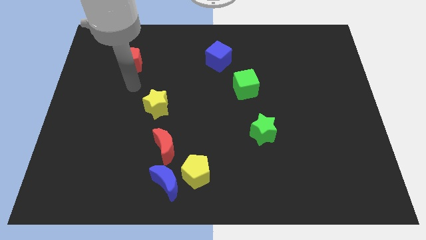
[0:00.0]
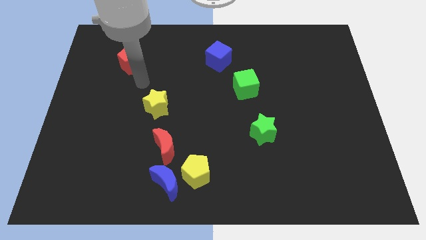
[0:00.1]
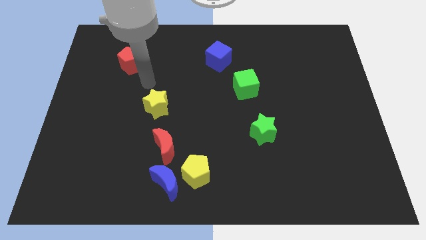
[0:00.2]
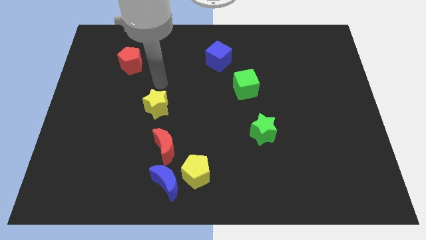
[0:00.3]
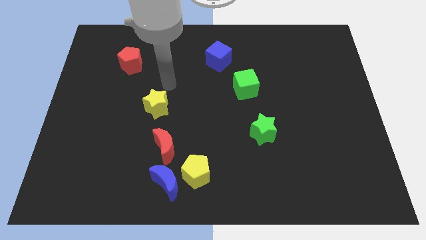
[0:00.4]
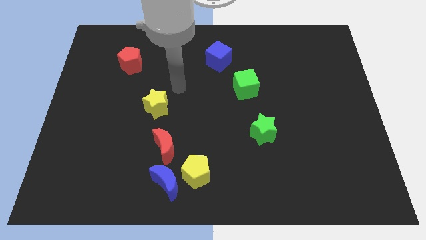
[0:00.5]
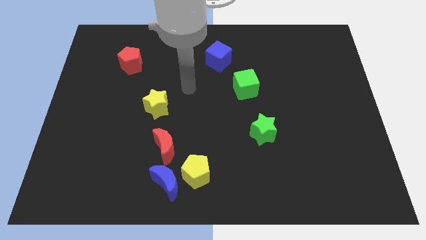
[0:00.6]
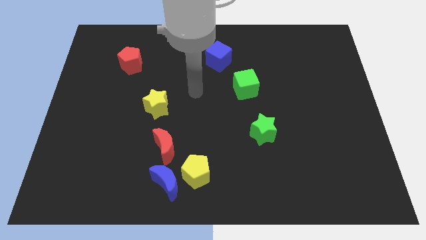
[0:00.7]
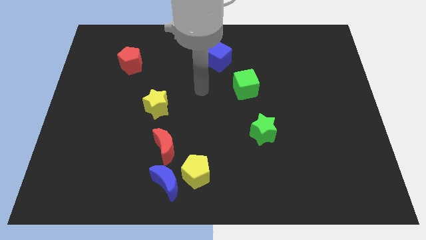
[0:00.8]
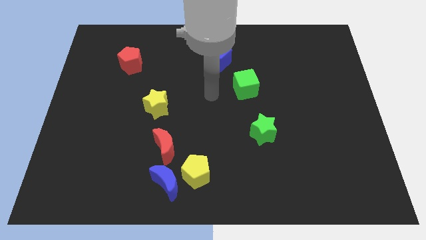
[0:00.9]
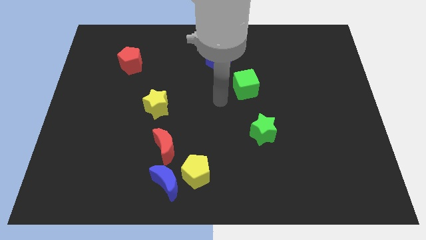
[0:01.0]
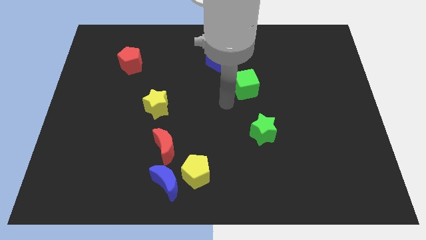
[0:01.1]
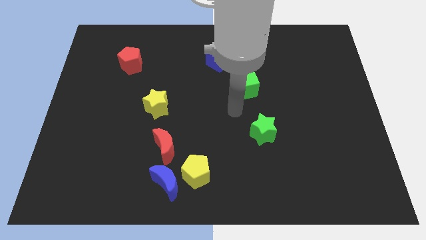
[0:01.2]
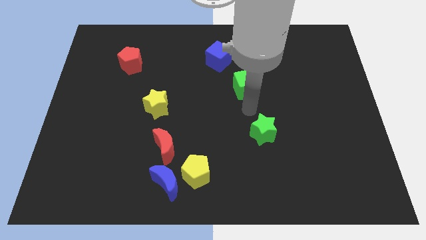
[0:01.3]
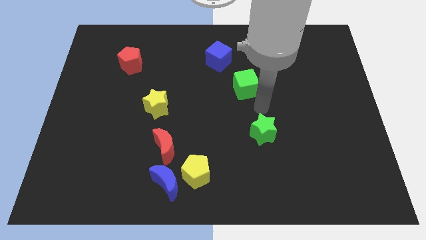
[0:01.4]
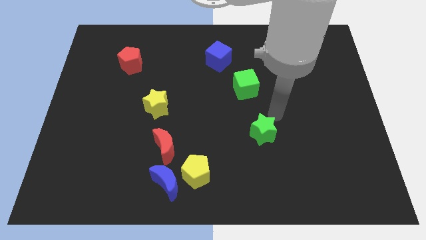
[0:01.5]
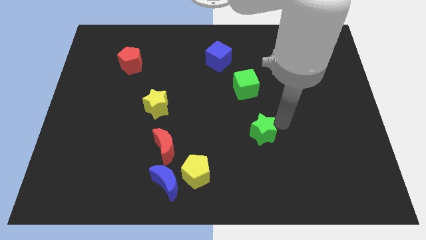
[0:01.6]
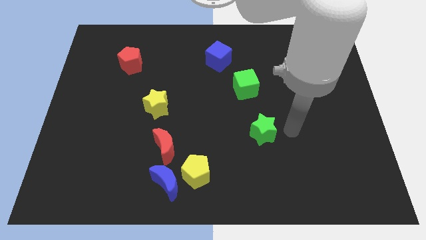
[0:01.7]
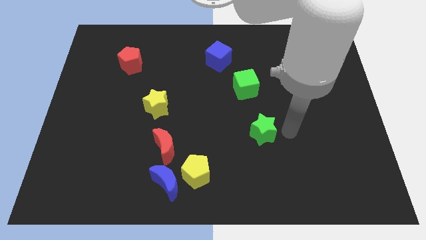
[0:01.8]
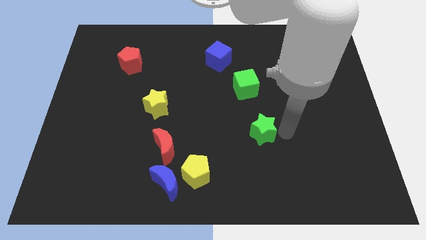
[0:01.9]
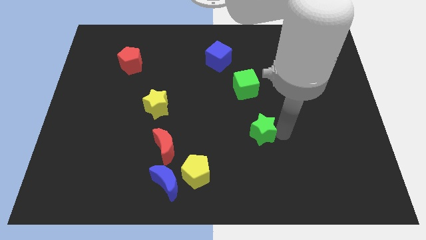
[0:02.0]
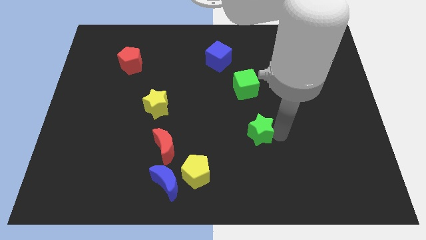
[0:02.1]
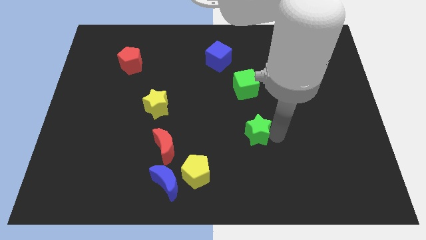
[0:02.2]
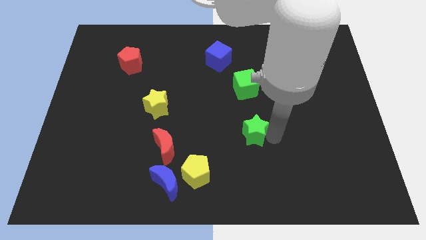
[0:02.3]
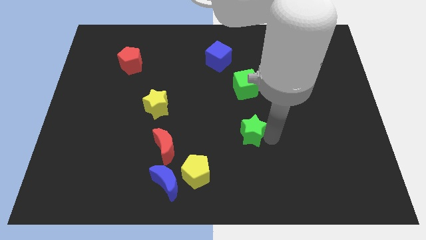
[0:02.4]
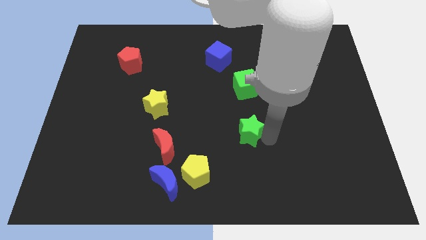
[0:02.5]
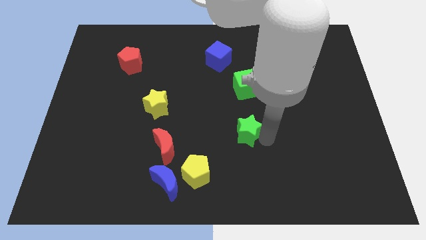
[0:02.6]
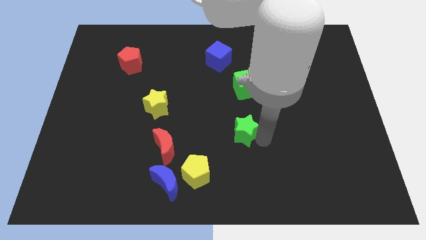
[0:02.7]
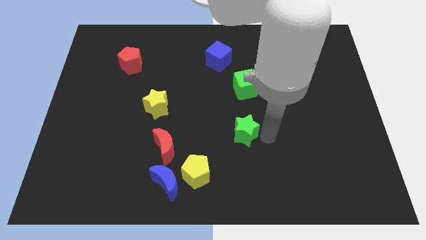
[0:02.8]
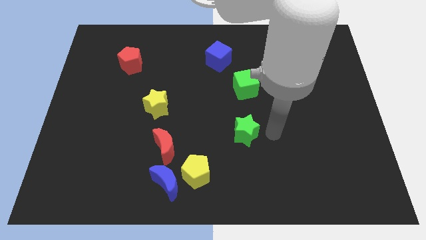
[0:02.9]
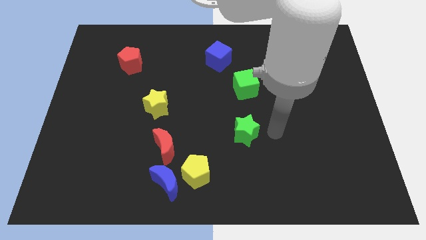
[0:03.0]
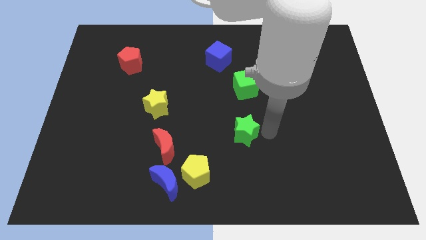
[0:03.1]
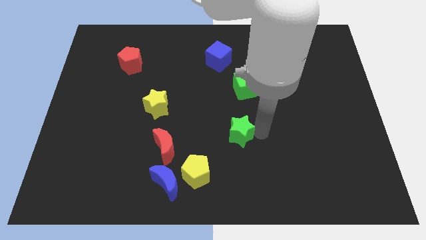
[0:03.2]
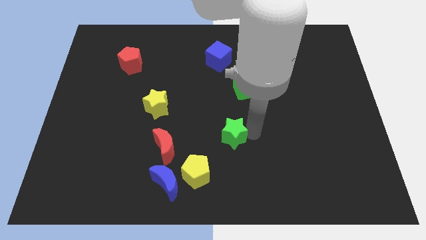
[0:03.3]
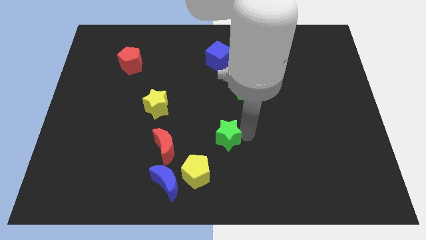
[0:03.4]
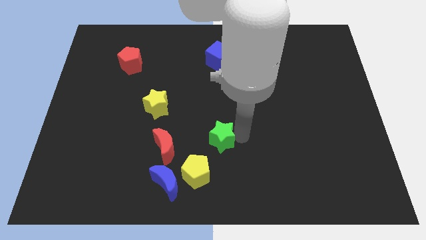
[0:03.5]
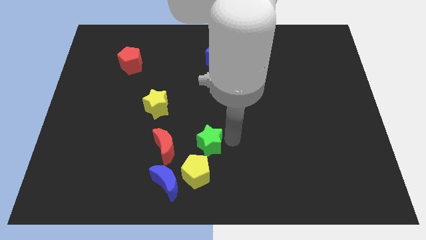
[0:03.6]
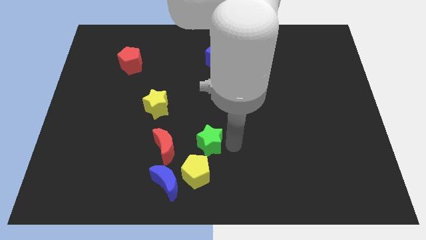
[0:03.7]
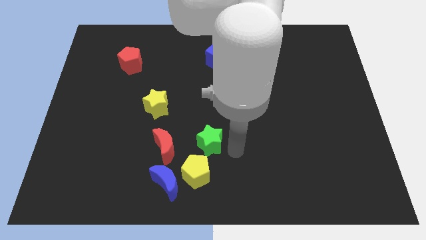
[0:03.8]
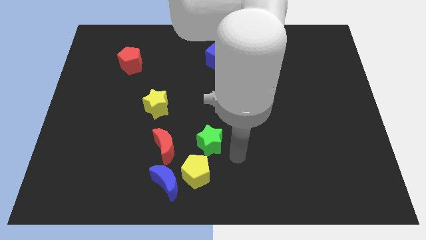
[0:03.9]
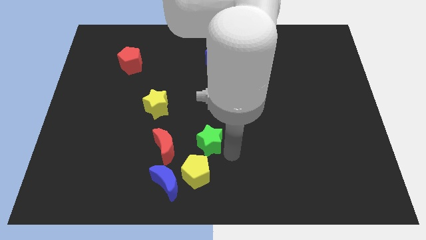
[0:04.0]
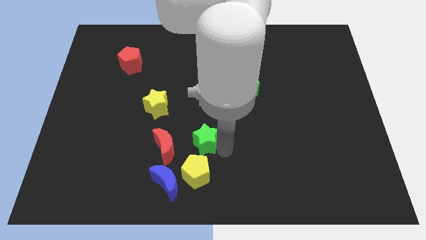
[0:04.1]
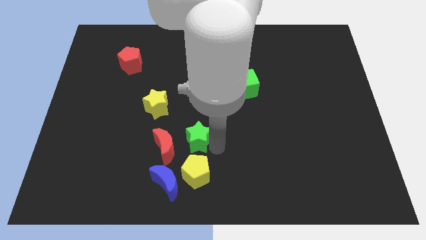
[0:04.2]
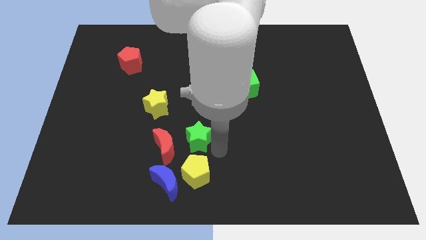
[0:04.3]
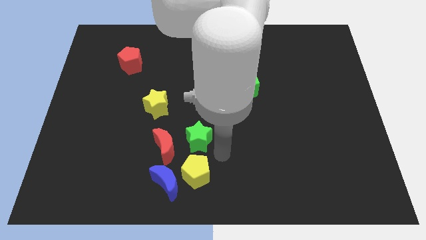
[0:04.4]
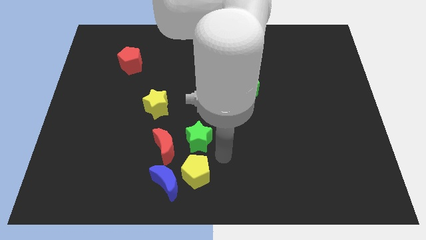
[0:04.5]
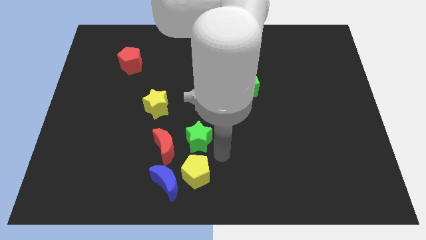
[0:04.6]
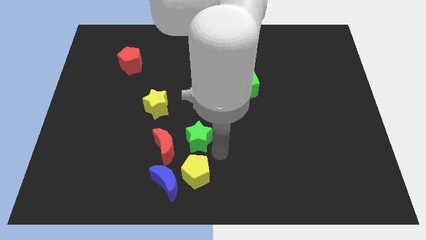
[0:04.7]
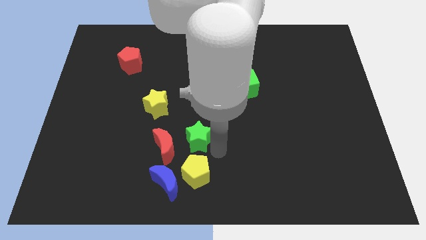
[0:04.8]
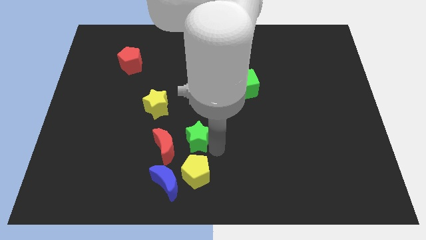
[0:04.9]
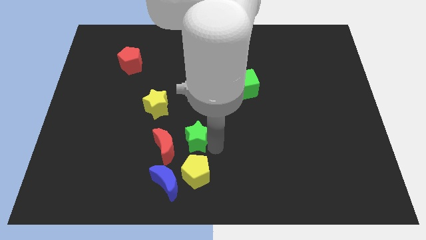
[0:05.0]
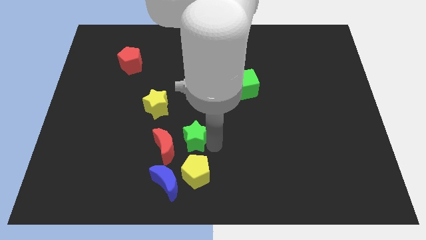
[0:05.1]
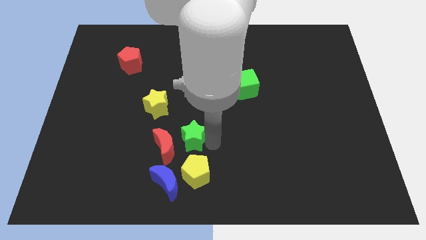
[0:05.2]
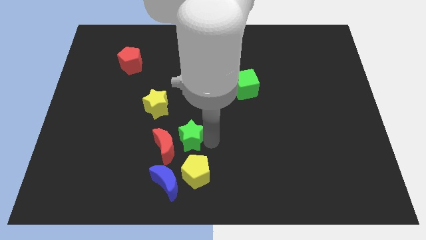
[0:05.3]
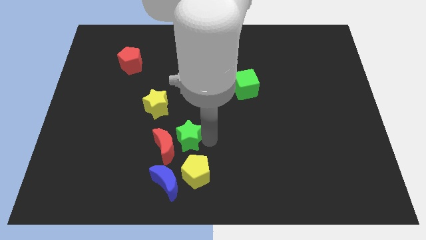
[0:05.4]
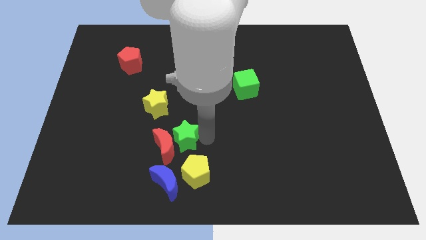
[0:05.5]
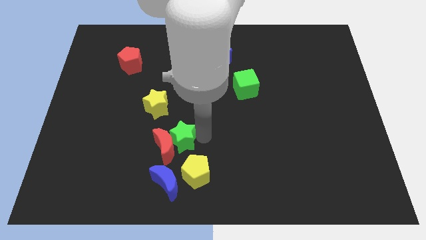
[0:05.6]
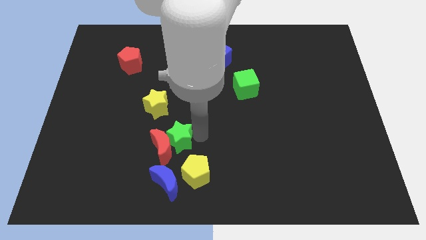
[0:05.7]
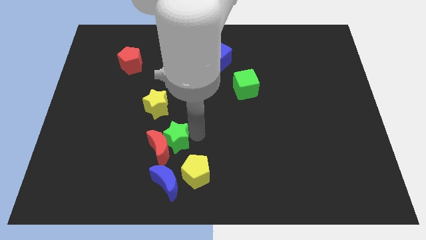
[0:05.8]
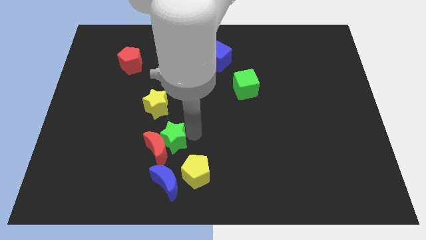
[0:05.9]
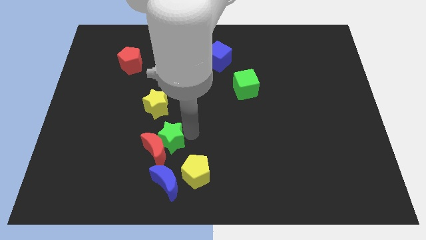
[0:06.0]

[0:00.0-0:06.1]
move the green star to the left

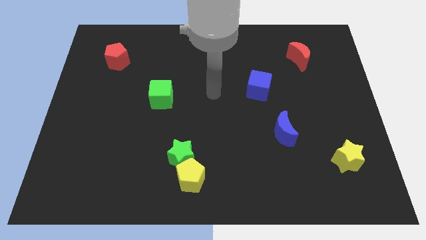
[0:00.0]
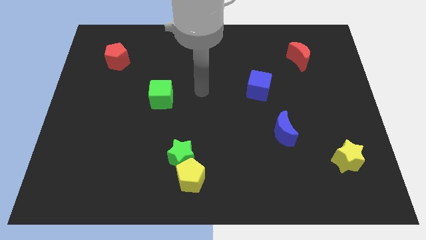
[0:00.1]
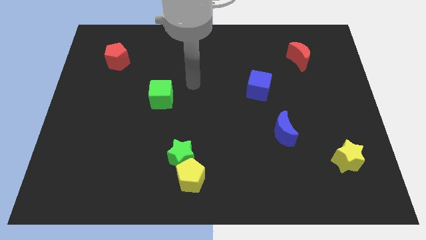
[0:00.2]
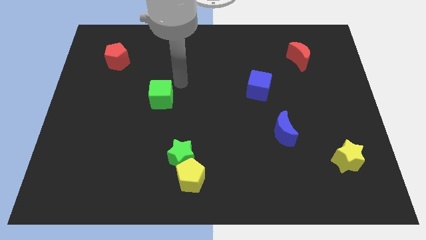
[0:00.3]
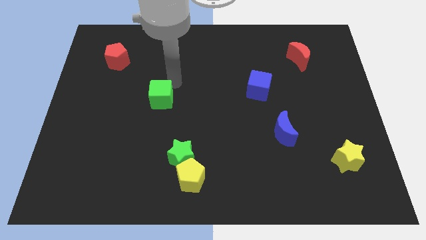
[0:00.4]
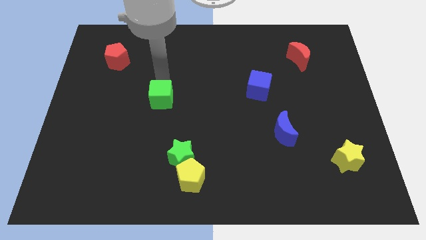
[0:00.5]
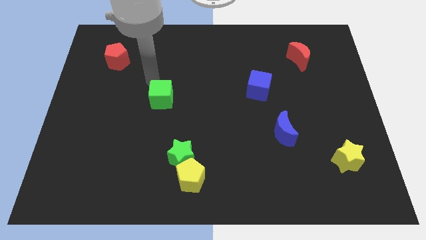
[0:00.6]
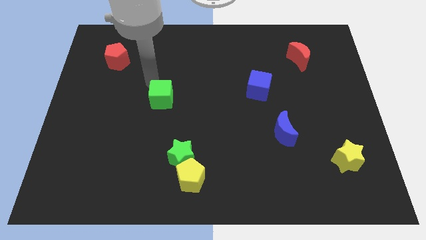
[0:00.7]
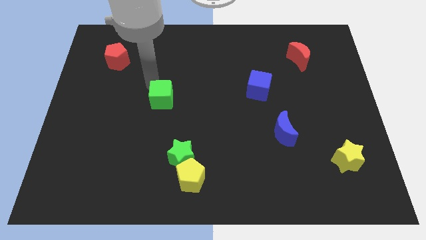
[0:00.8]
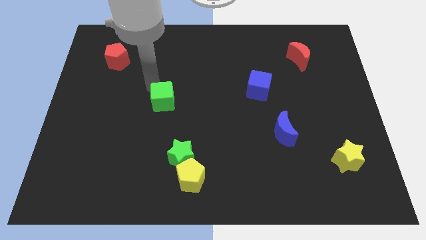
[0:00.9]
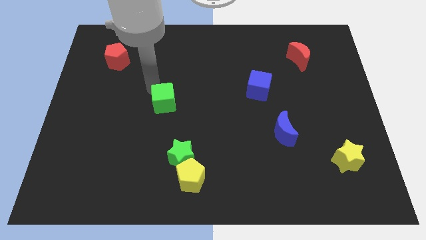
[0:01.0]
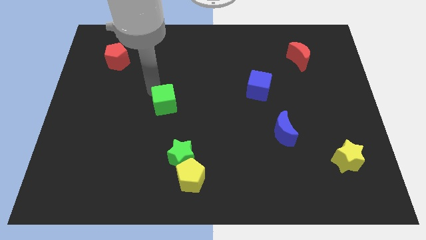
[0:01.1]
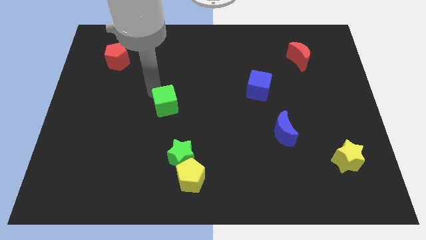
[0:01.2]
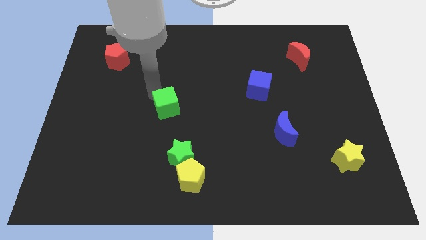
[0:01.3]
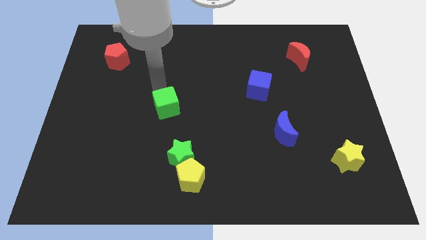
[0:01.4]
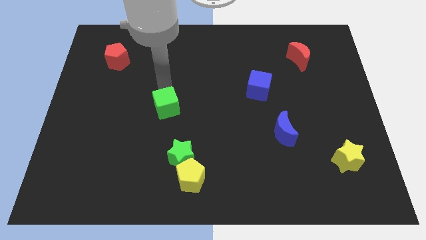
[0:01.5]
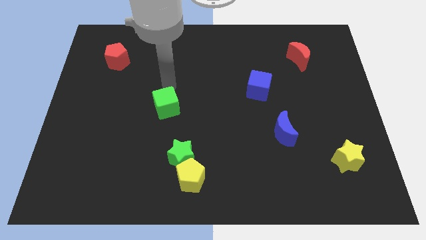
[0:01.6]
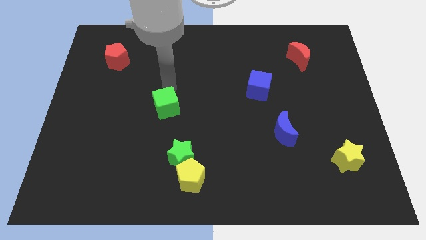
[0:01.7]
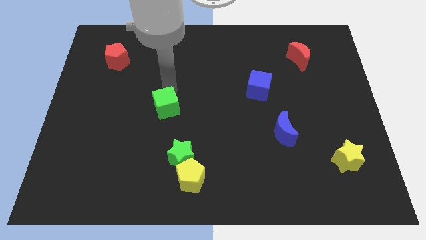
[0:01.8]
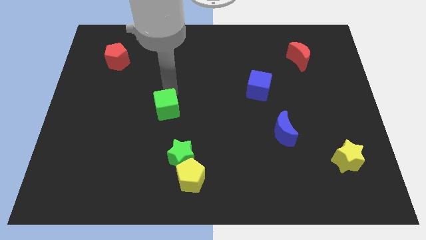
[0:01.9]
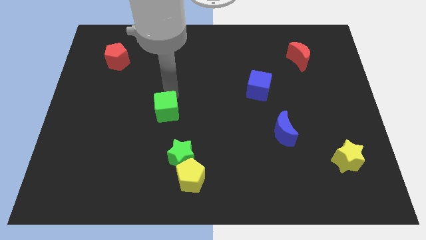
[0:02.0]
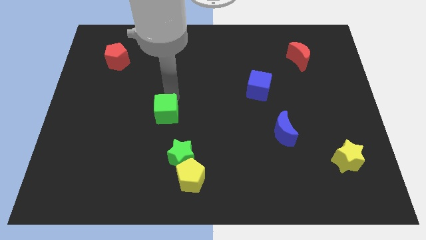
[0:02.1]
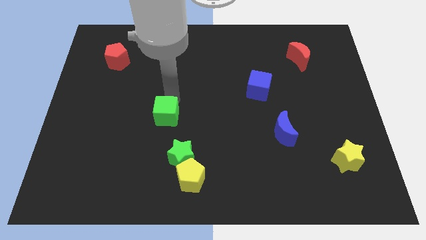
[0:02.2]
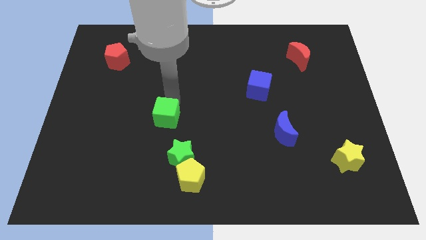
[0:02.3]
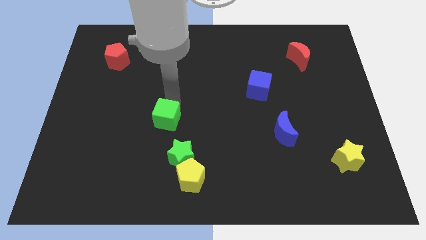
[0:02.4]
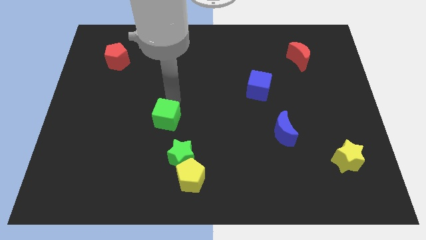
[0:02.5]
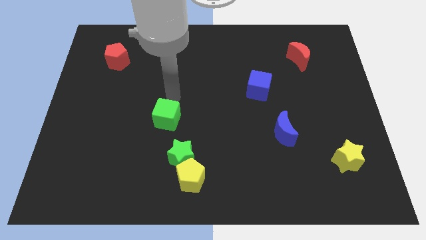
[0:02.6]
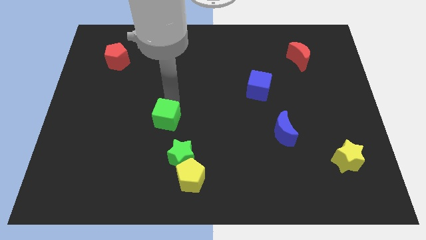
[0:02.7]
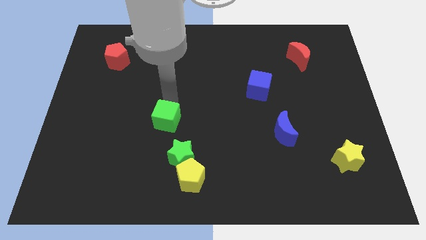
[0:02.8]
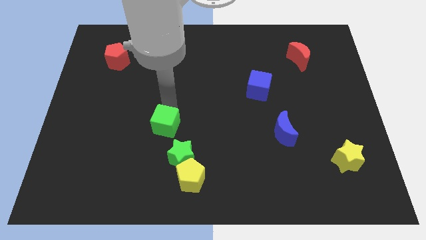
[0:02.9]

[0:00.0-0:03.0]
push the green cube downwards a little
